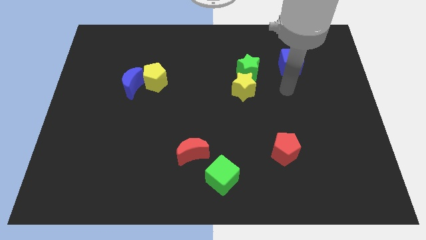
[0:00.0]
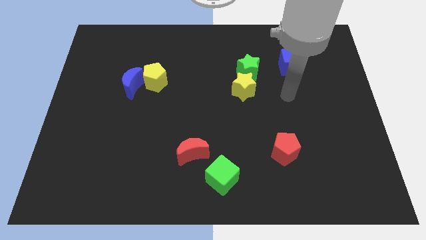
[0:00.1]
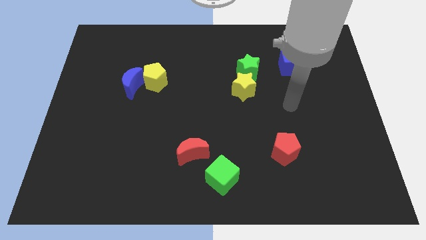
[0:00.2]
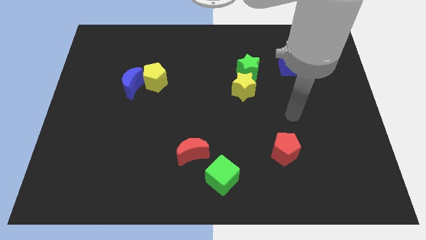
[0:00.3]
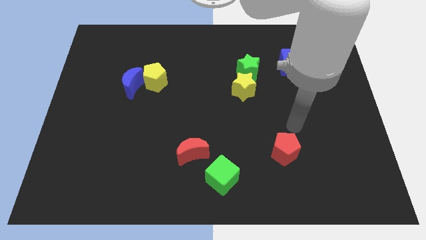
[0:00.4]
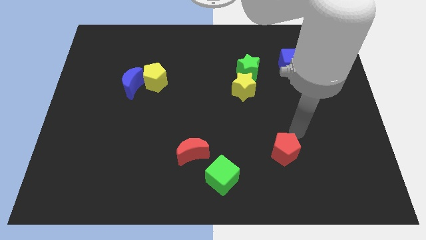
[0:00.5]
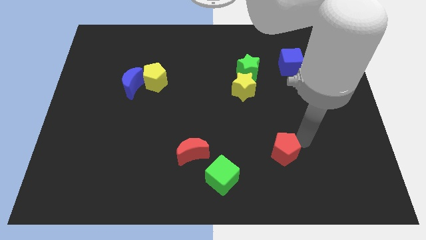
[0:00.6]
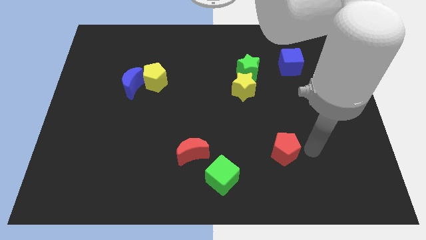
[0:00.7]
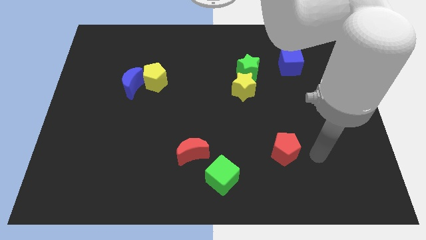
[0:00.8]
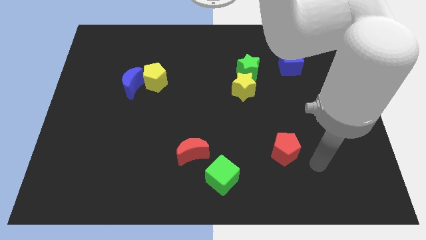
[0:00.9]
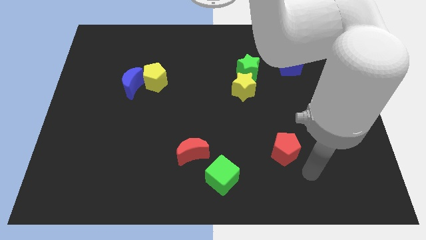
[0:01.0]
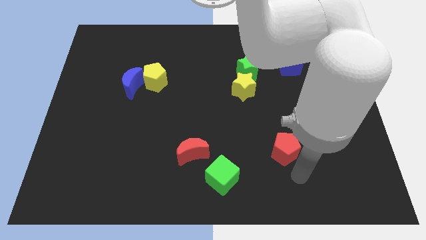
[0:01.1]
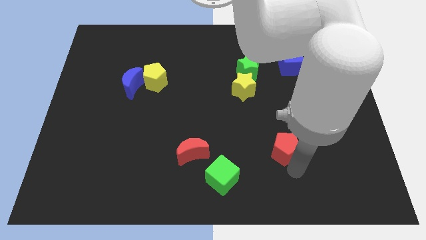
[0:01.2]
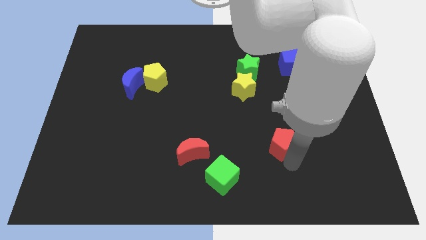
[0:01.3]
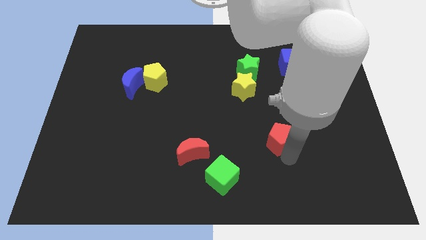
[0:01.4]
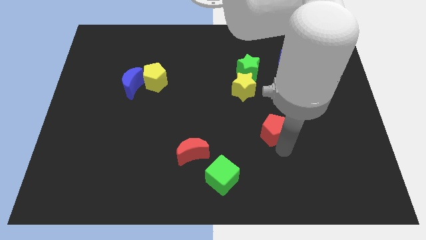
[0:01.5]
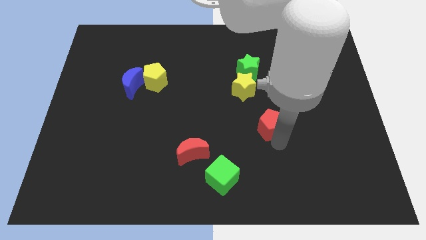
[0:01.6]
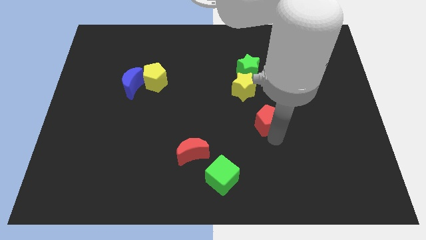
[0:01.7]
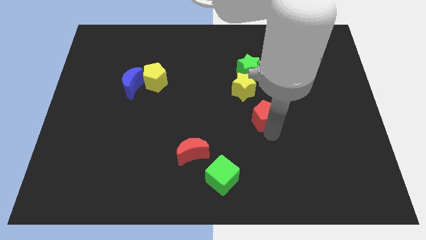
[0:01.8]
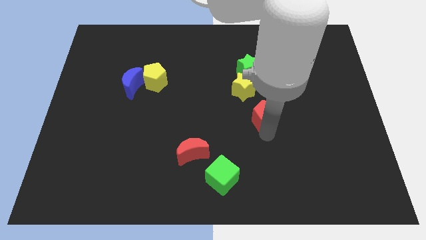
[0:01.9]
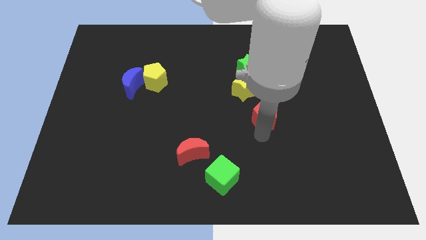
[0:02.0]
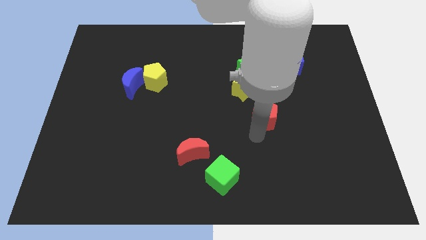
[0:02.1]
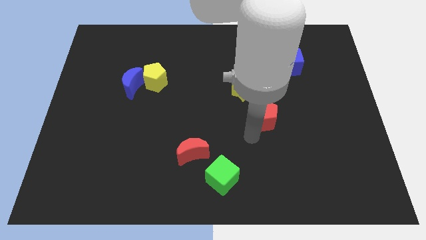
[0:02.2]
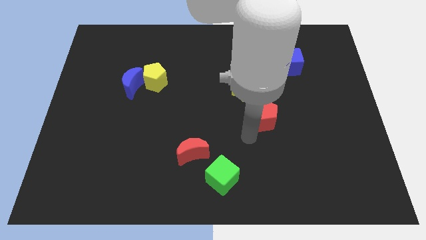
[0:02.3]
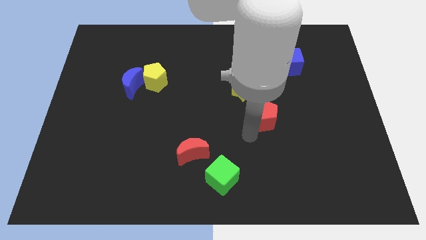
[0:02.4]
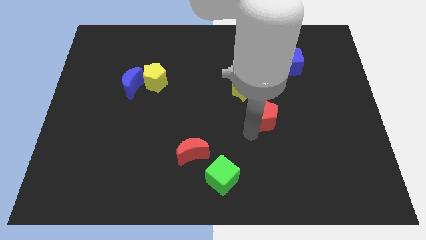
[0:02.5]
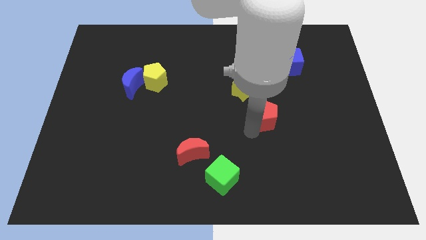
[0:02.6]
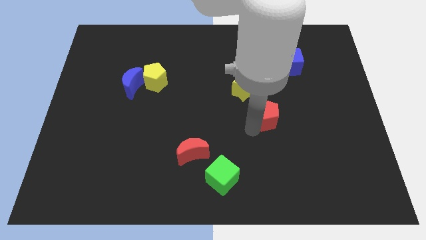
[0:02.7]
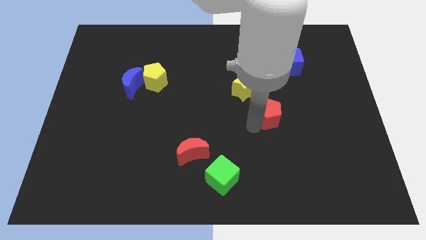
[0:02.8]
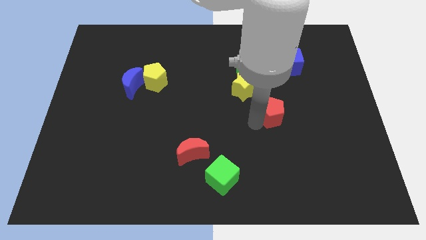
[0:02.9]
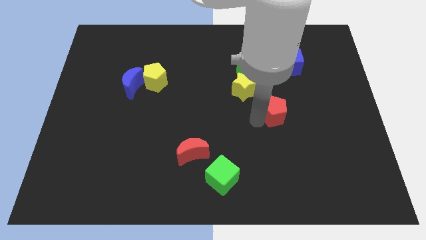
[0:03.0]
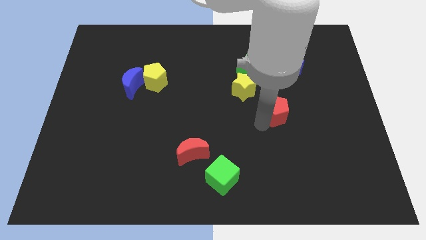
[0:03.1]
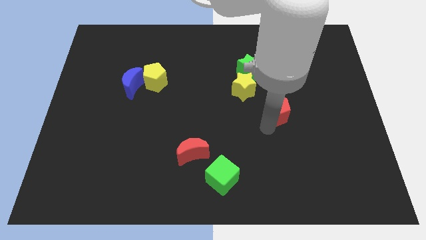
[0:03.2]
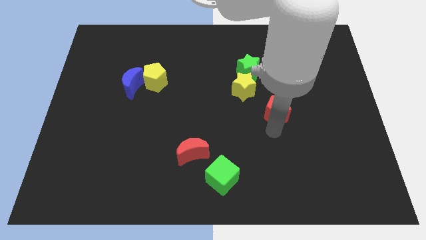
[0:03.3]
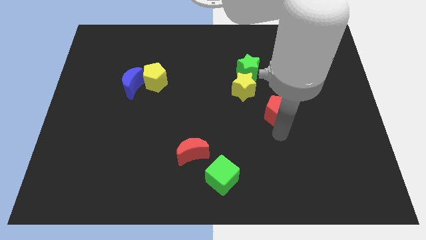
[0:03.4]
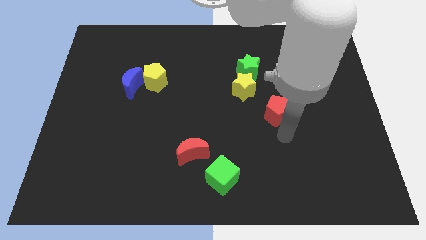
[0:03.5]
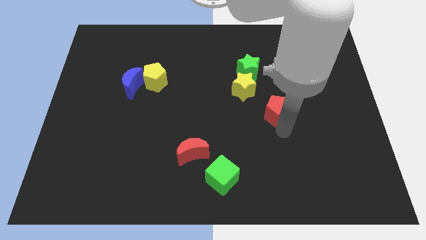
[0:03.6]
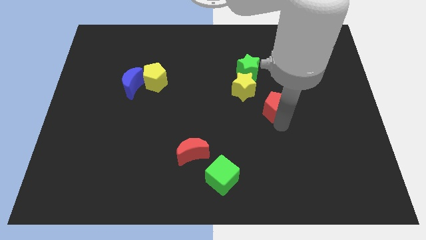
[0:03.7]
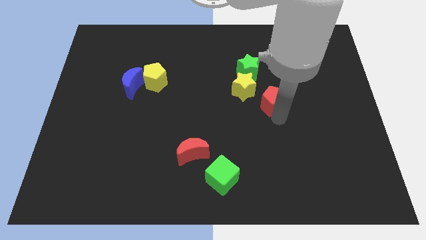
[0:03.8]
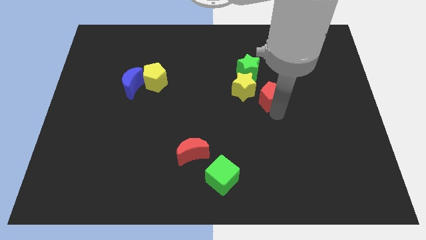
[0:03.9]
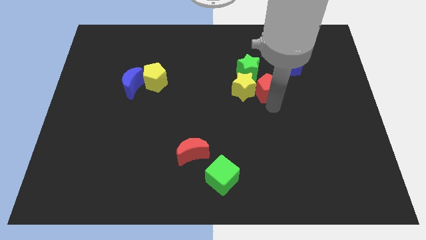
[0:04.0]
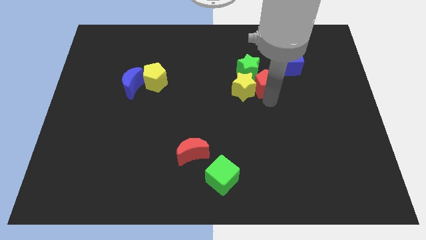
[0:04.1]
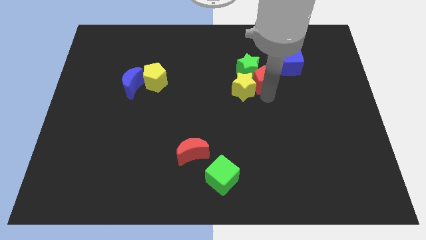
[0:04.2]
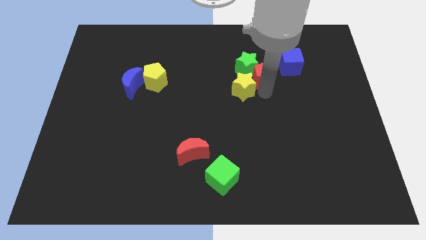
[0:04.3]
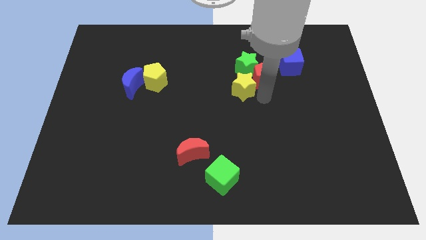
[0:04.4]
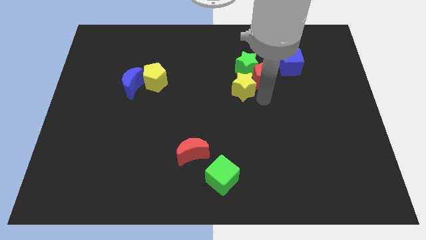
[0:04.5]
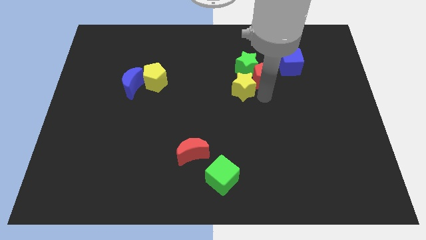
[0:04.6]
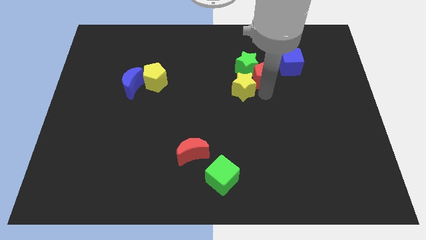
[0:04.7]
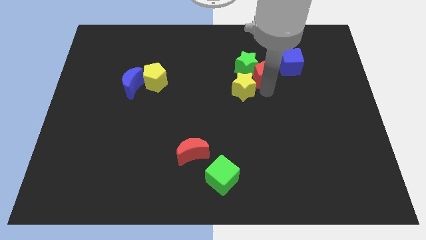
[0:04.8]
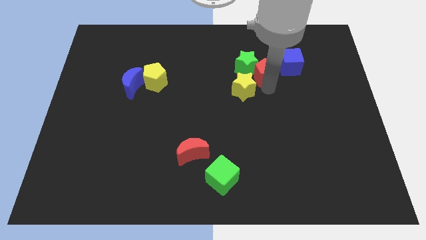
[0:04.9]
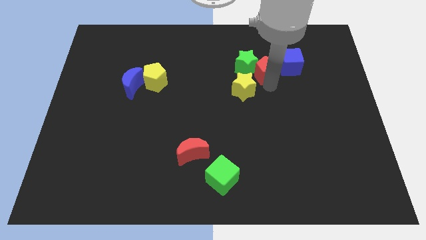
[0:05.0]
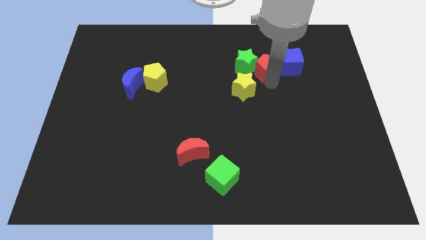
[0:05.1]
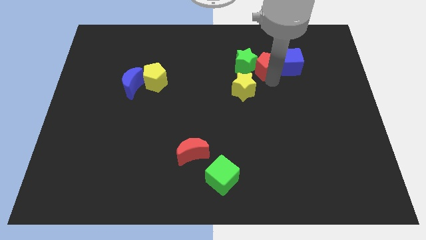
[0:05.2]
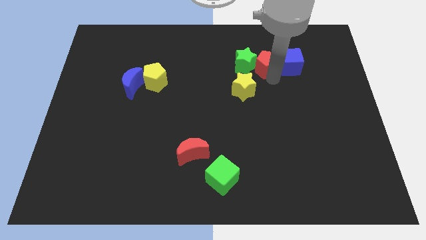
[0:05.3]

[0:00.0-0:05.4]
push the red pentagon diagonally up and to the right of the green star

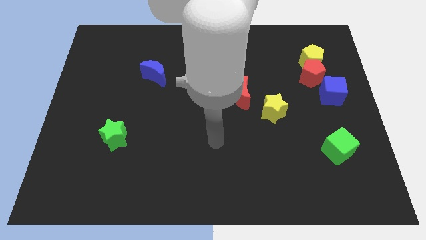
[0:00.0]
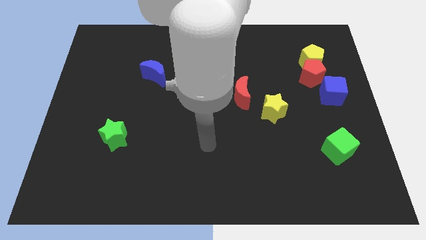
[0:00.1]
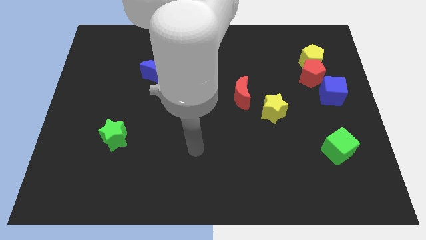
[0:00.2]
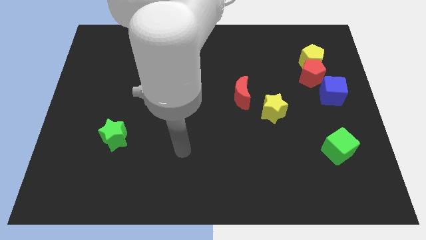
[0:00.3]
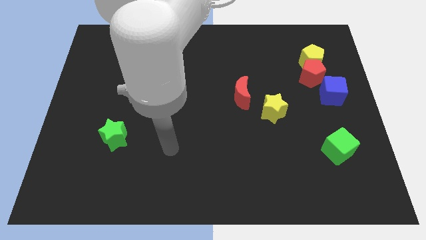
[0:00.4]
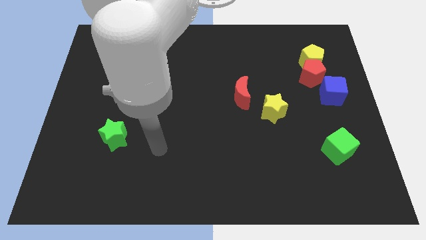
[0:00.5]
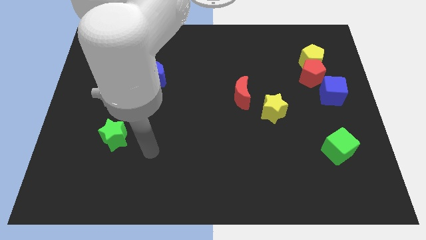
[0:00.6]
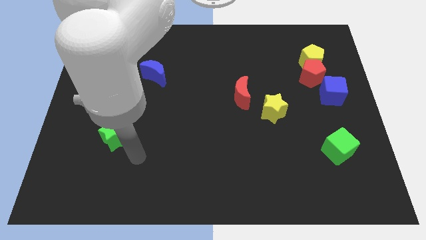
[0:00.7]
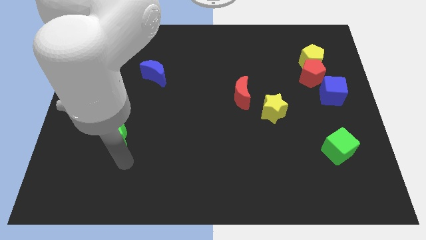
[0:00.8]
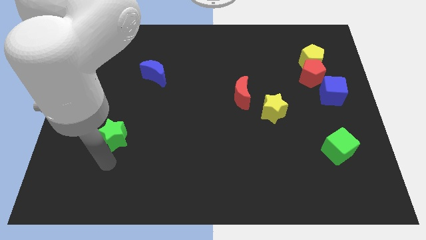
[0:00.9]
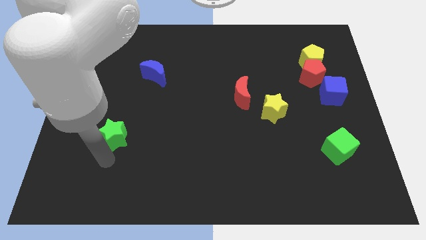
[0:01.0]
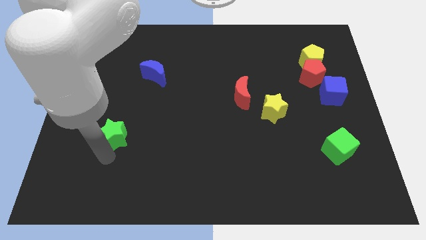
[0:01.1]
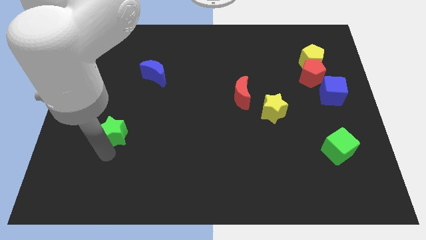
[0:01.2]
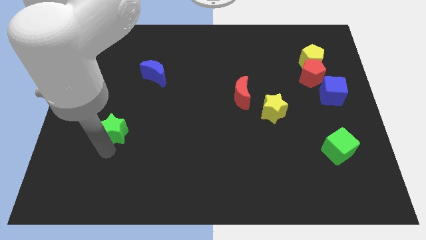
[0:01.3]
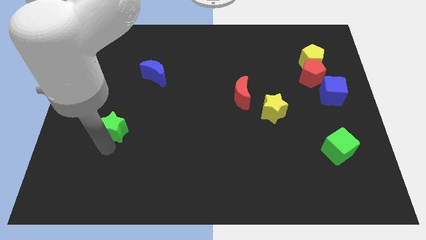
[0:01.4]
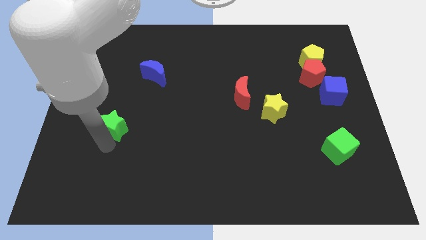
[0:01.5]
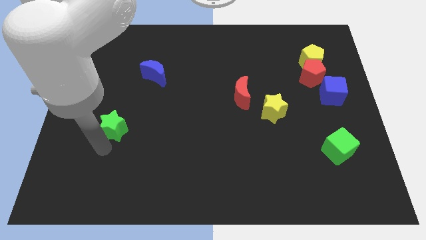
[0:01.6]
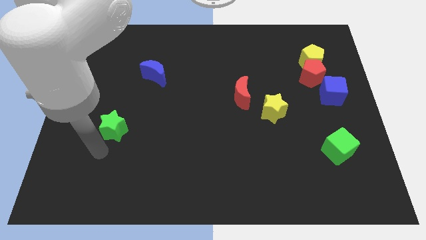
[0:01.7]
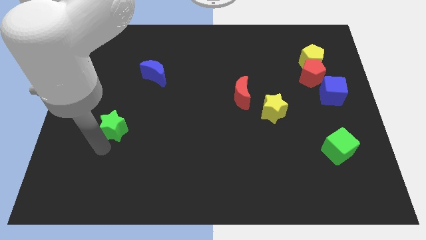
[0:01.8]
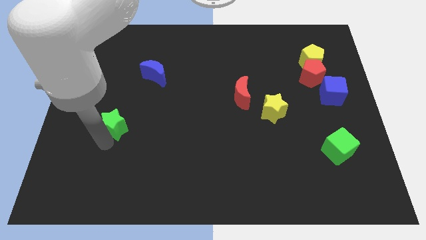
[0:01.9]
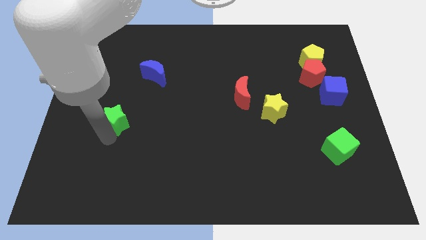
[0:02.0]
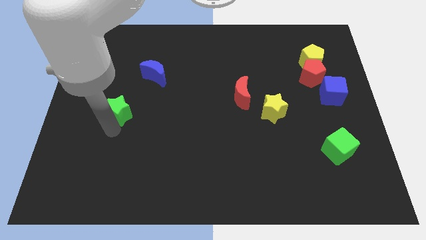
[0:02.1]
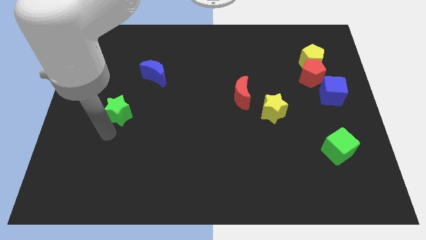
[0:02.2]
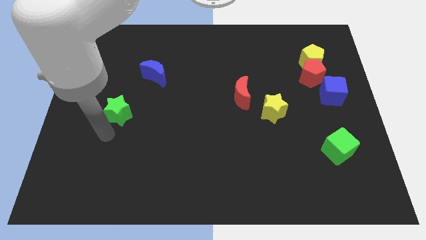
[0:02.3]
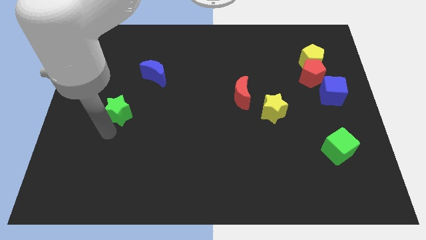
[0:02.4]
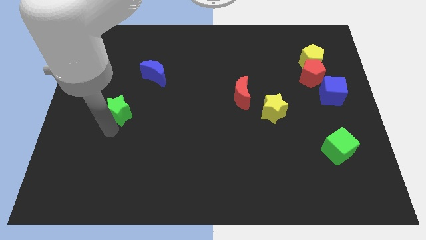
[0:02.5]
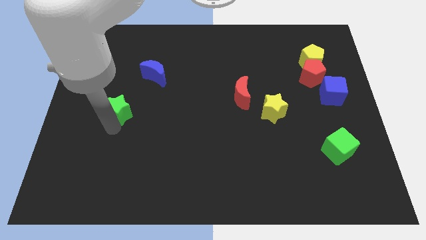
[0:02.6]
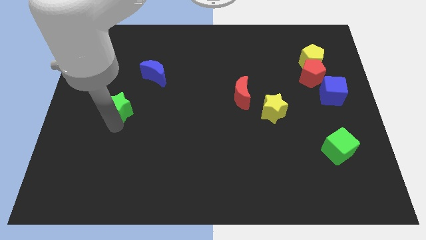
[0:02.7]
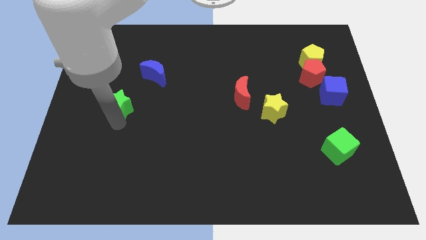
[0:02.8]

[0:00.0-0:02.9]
put the green star to the bottom left side of the blue moon

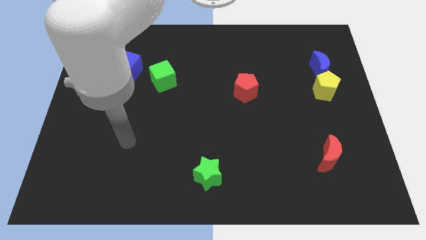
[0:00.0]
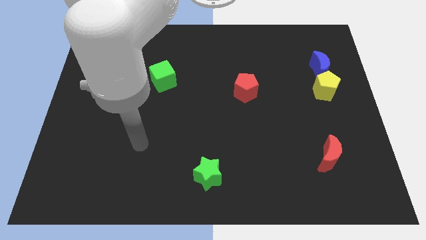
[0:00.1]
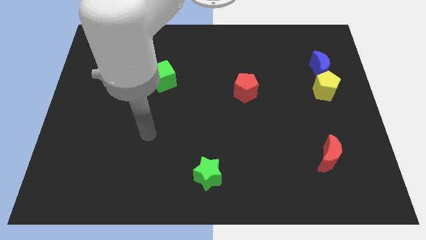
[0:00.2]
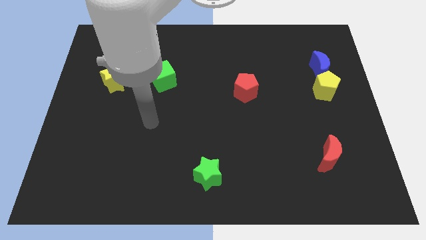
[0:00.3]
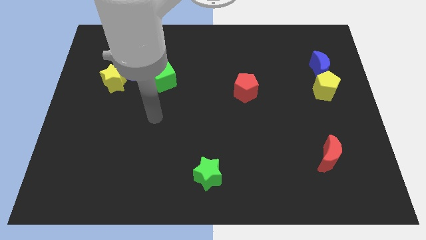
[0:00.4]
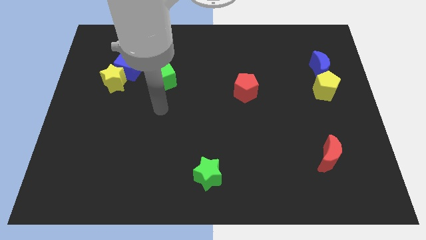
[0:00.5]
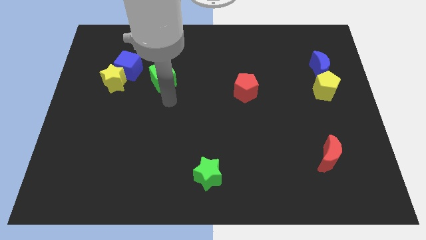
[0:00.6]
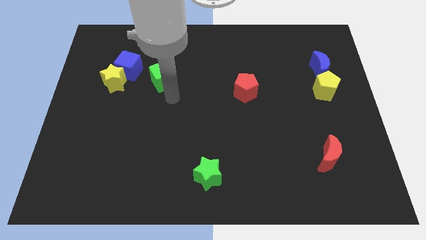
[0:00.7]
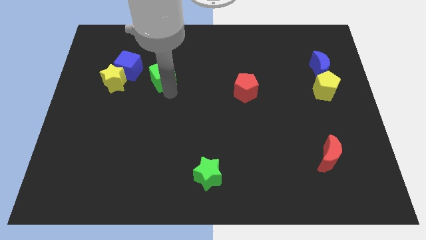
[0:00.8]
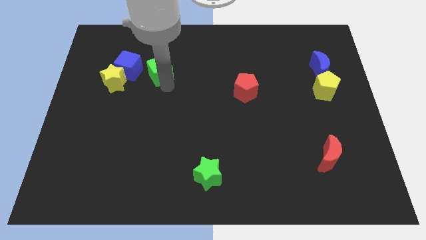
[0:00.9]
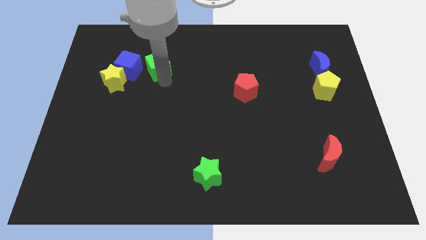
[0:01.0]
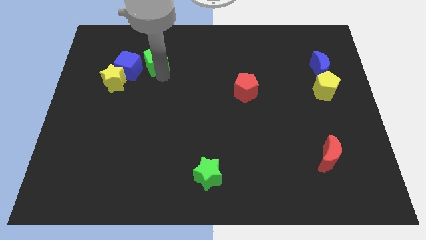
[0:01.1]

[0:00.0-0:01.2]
push the green cube to the top right side of the blue cube
